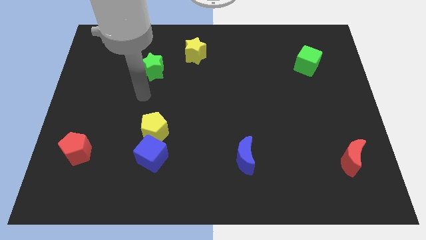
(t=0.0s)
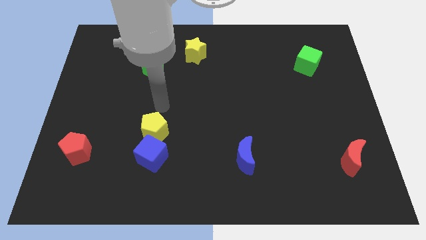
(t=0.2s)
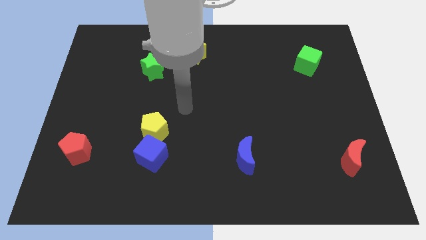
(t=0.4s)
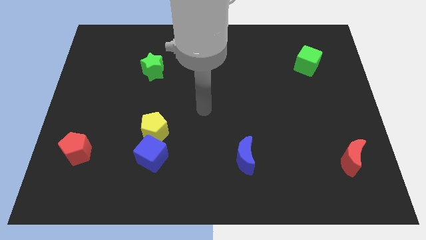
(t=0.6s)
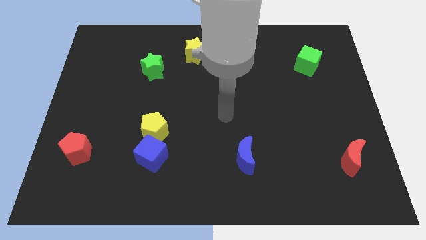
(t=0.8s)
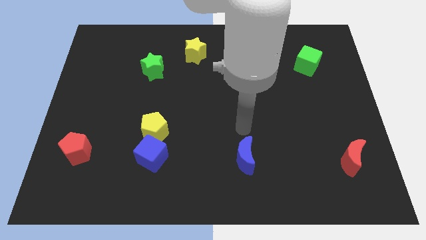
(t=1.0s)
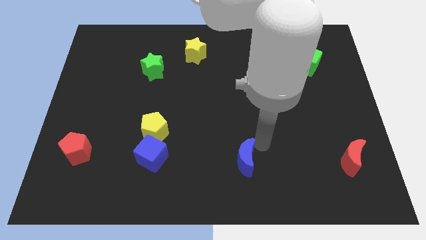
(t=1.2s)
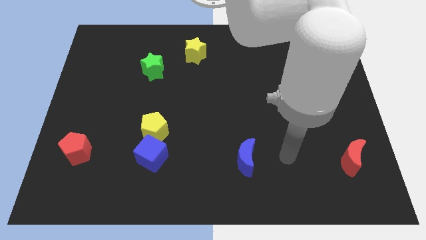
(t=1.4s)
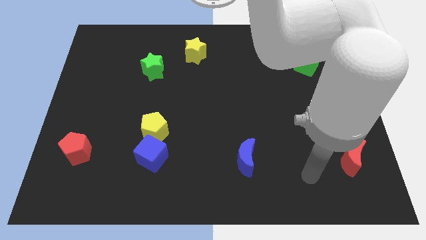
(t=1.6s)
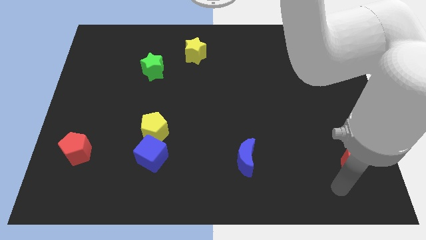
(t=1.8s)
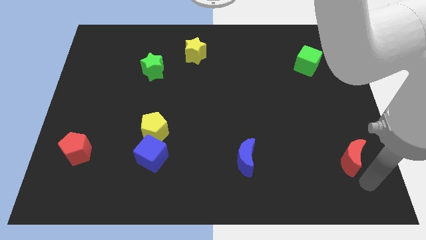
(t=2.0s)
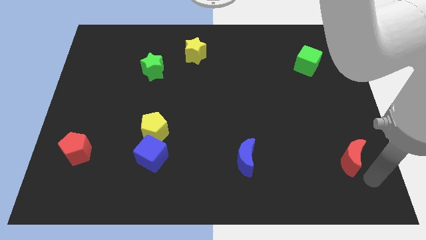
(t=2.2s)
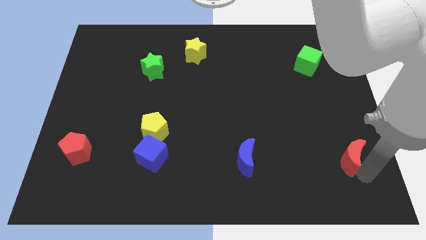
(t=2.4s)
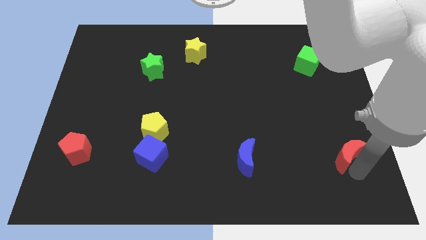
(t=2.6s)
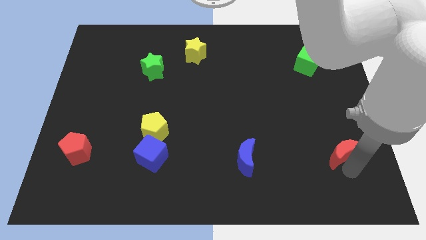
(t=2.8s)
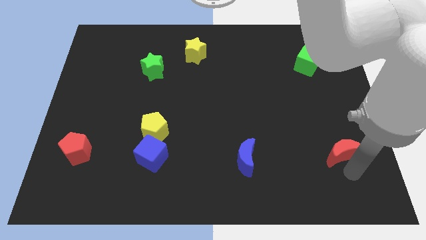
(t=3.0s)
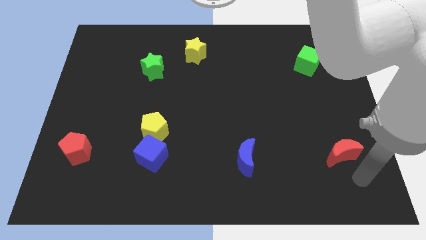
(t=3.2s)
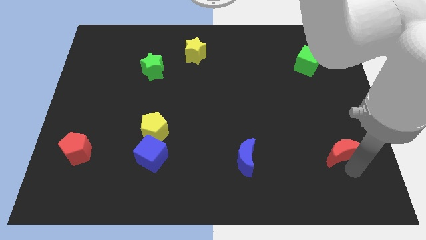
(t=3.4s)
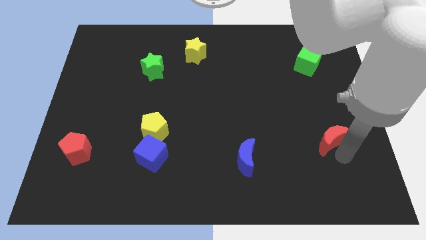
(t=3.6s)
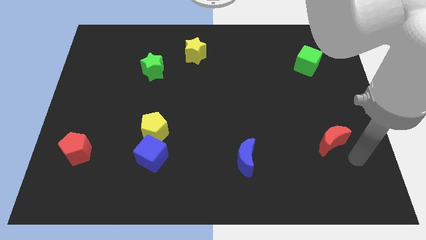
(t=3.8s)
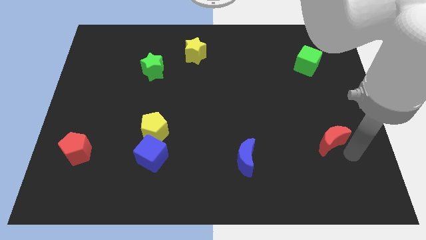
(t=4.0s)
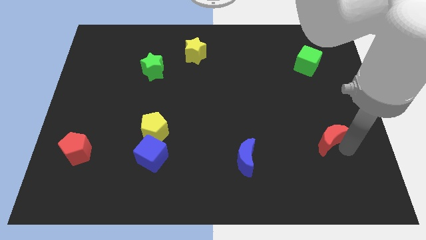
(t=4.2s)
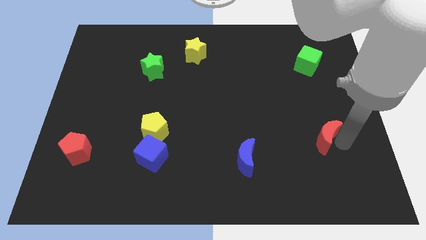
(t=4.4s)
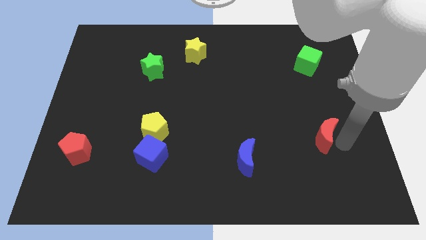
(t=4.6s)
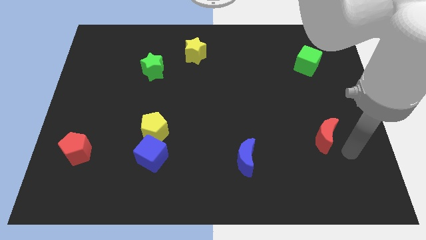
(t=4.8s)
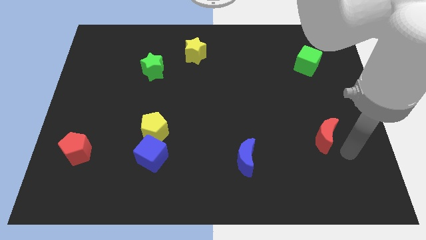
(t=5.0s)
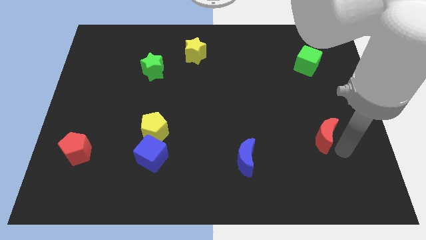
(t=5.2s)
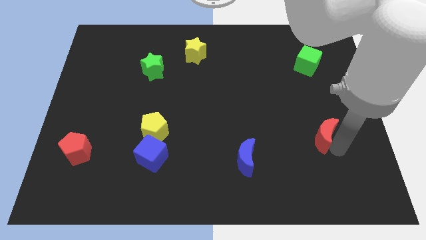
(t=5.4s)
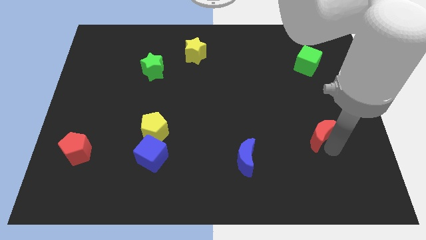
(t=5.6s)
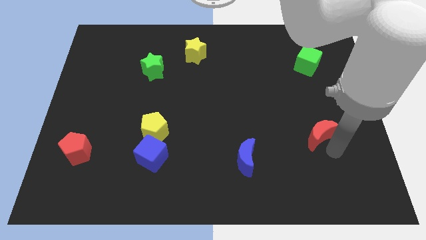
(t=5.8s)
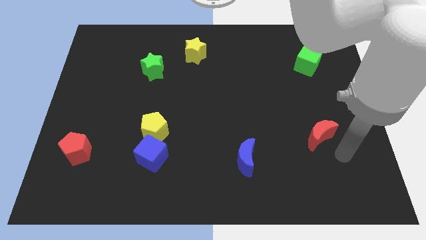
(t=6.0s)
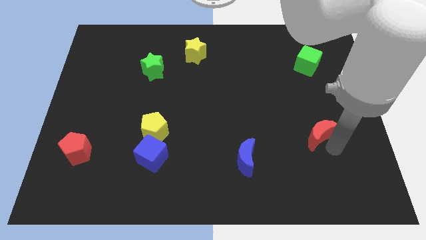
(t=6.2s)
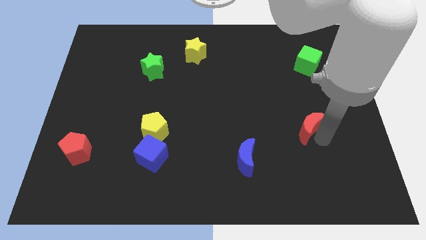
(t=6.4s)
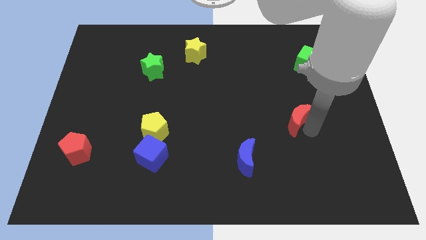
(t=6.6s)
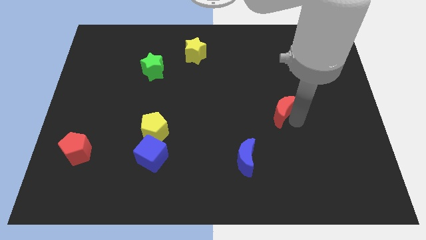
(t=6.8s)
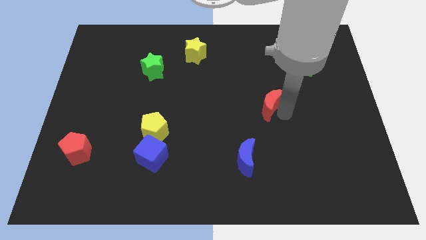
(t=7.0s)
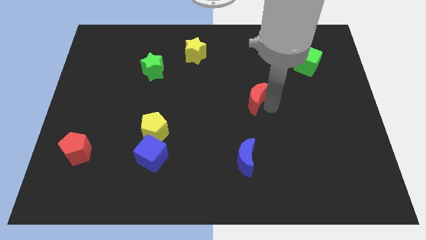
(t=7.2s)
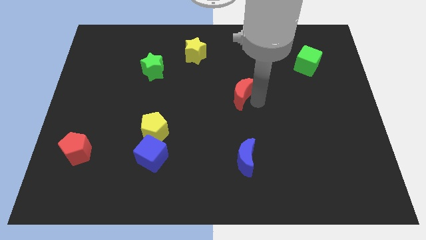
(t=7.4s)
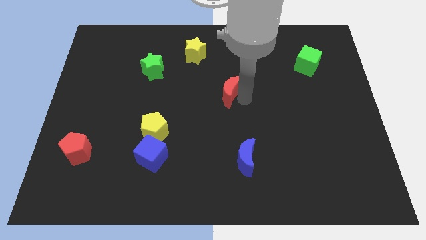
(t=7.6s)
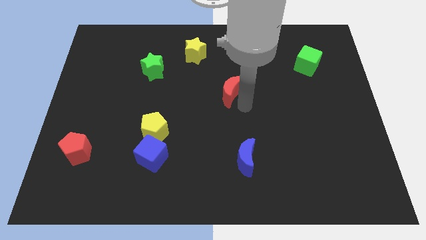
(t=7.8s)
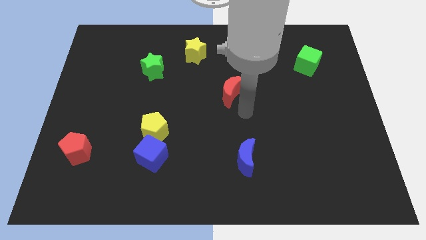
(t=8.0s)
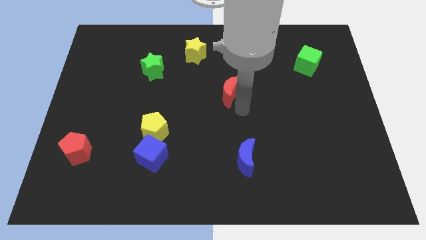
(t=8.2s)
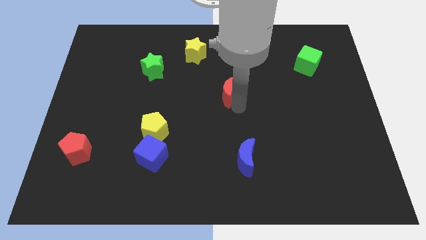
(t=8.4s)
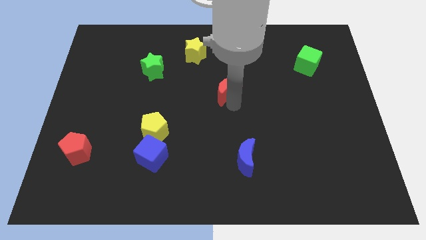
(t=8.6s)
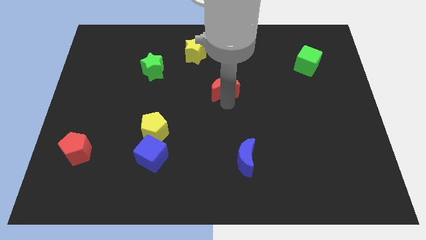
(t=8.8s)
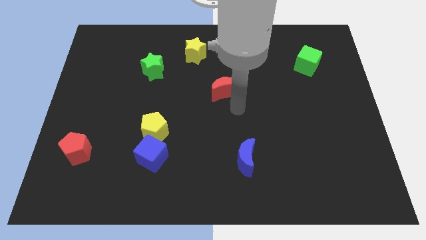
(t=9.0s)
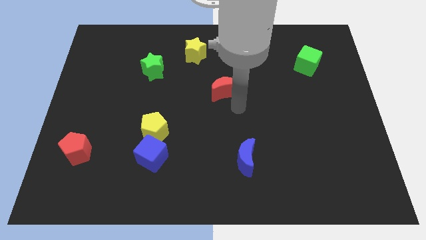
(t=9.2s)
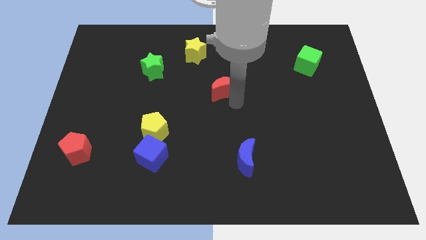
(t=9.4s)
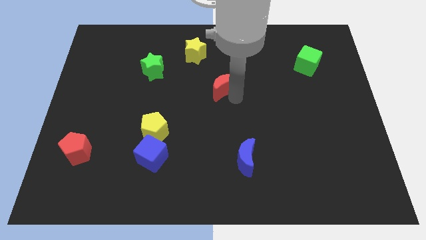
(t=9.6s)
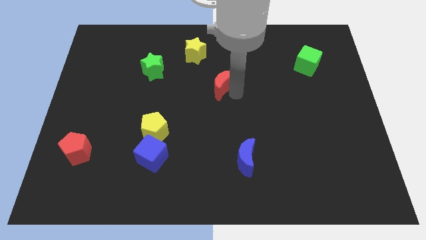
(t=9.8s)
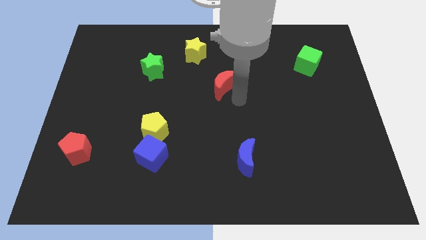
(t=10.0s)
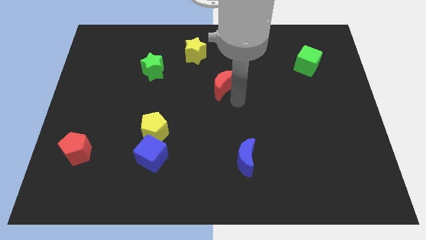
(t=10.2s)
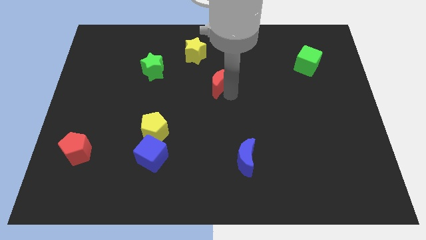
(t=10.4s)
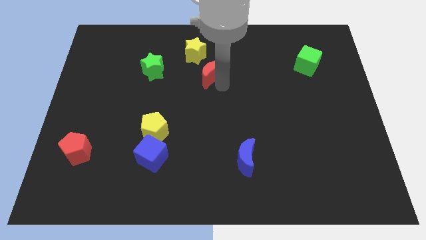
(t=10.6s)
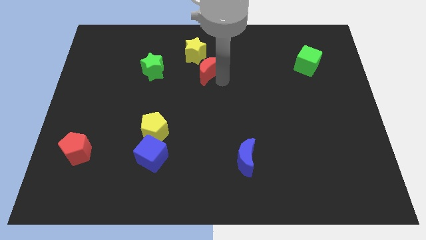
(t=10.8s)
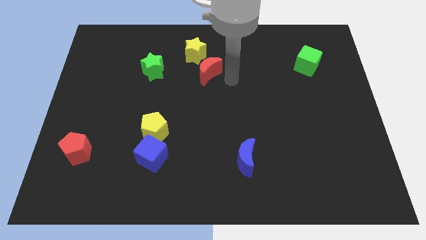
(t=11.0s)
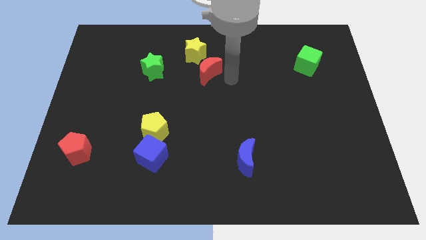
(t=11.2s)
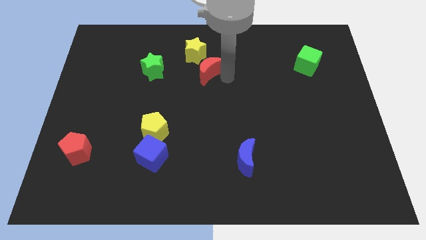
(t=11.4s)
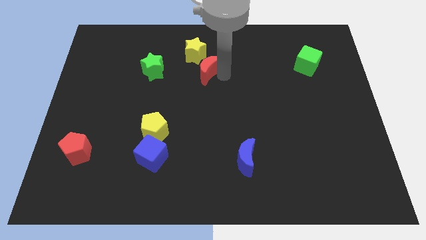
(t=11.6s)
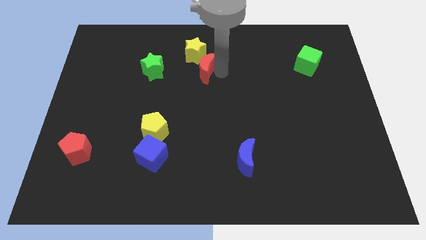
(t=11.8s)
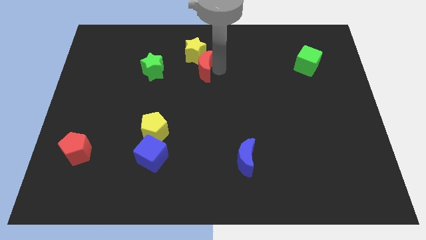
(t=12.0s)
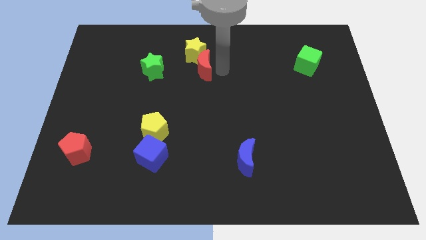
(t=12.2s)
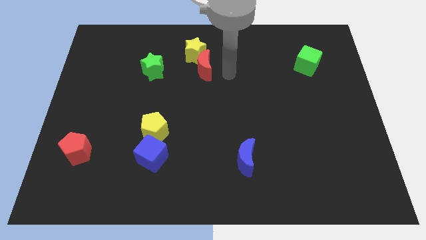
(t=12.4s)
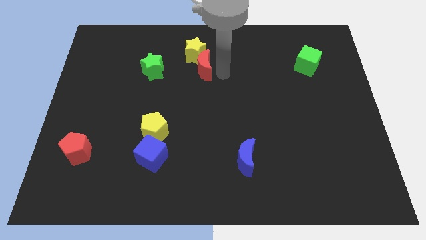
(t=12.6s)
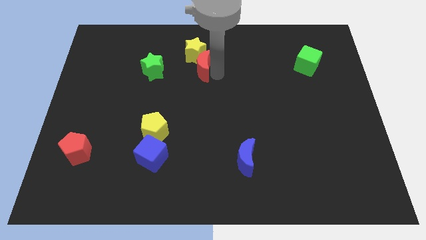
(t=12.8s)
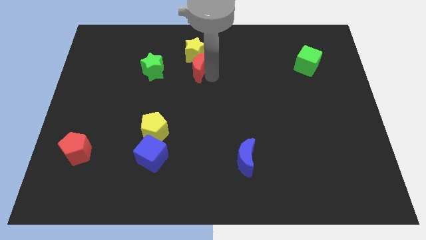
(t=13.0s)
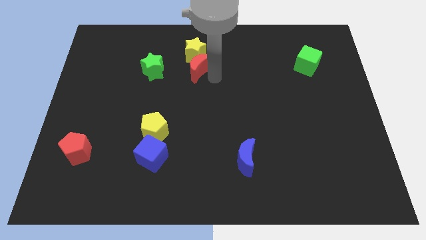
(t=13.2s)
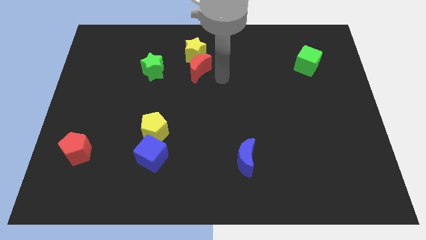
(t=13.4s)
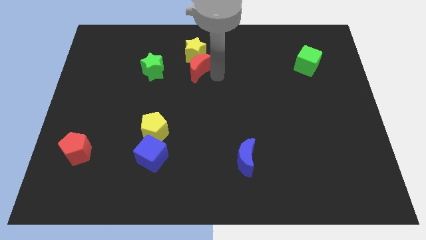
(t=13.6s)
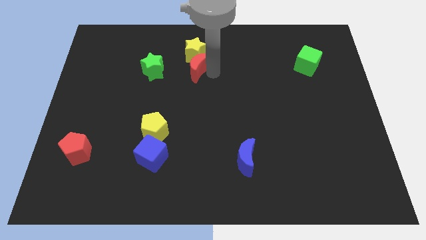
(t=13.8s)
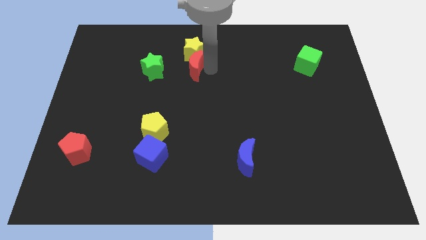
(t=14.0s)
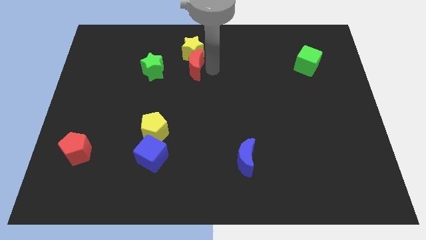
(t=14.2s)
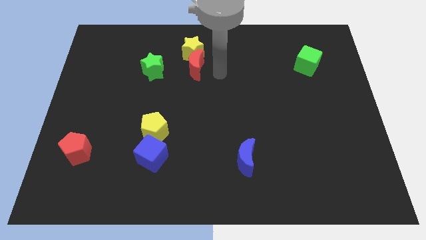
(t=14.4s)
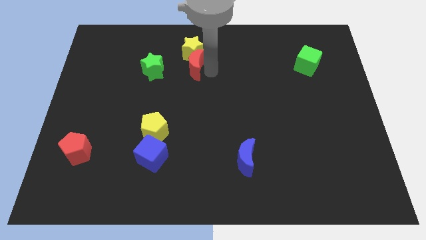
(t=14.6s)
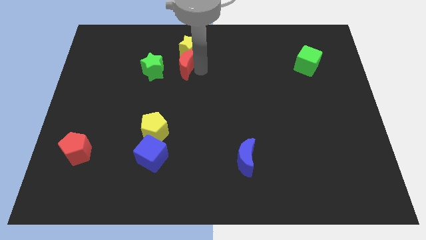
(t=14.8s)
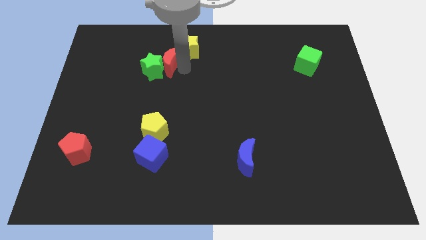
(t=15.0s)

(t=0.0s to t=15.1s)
push the red moon to the left side of the yellow star
